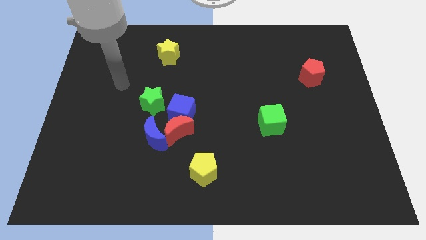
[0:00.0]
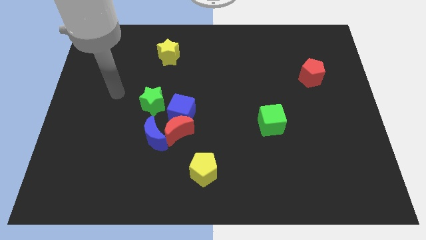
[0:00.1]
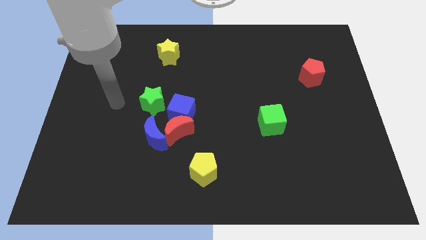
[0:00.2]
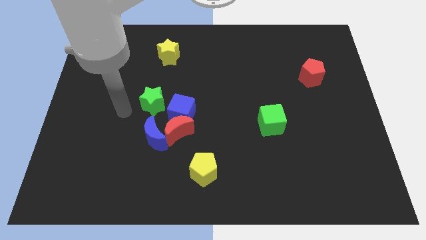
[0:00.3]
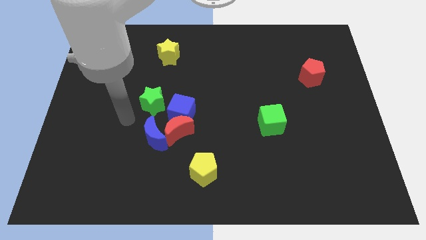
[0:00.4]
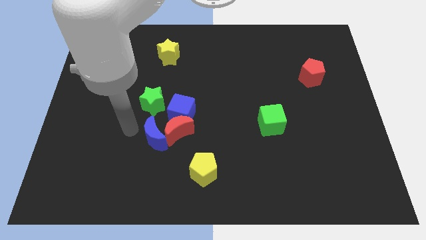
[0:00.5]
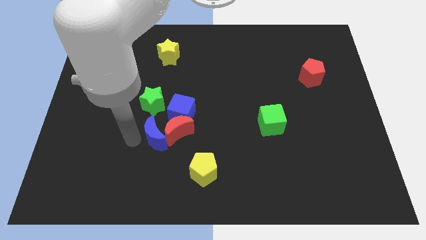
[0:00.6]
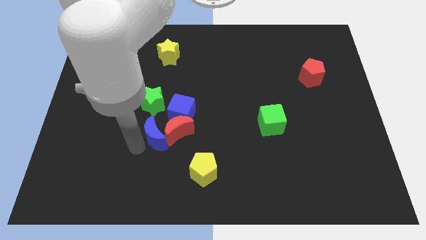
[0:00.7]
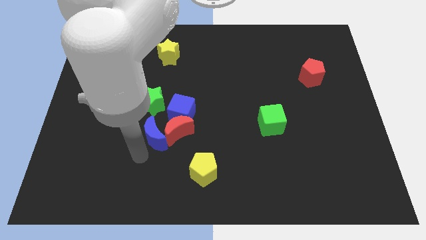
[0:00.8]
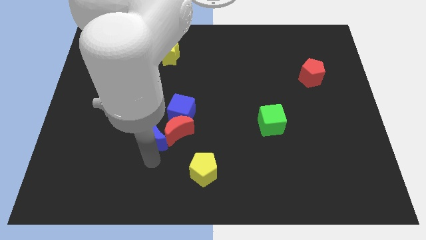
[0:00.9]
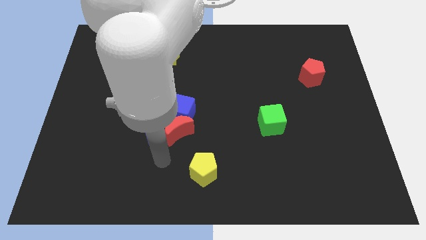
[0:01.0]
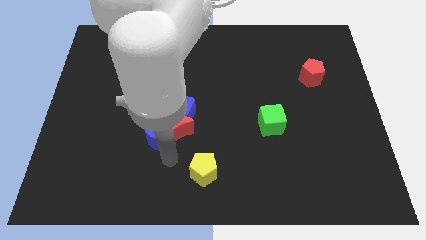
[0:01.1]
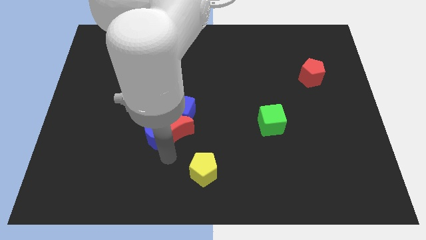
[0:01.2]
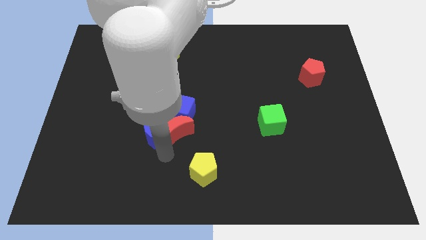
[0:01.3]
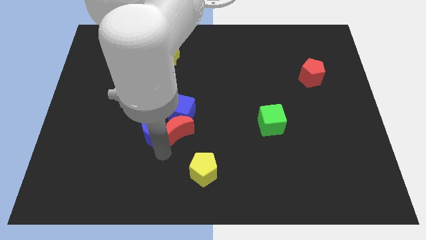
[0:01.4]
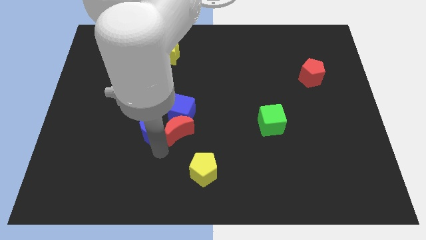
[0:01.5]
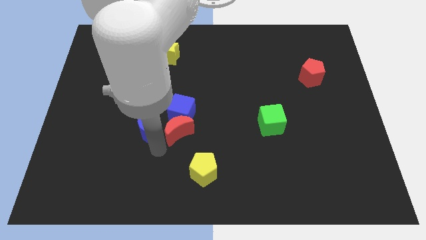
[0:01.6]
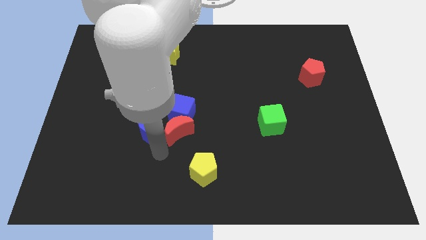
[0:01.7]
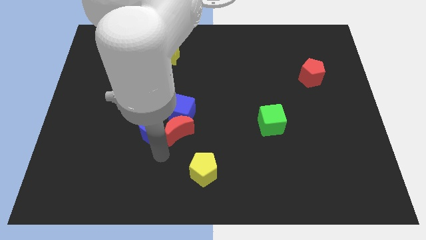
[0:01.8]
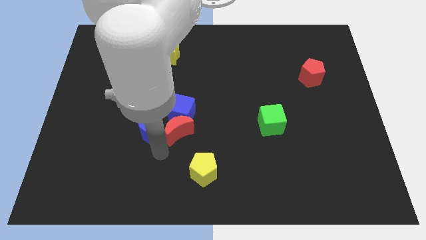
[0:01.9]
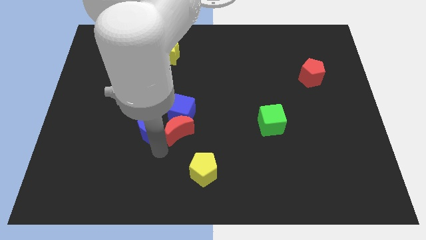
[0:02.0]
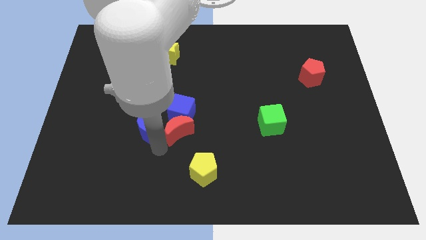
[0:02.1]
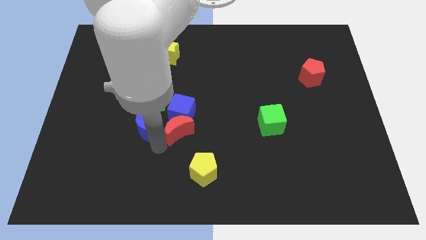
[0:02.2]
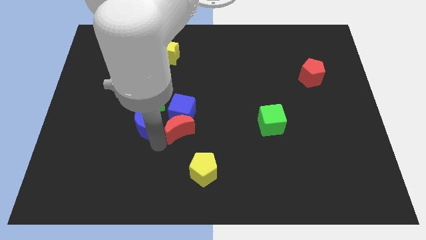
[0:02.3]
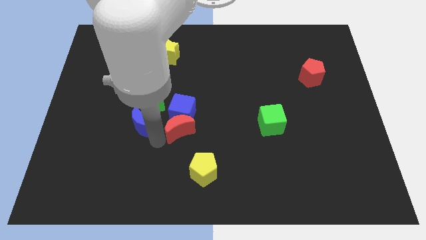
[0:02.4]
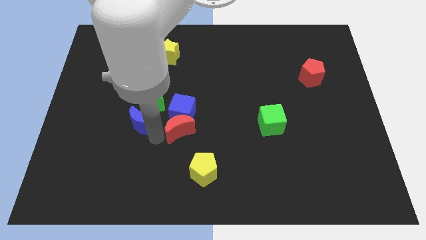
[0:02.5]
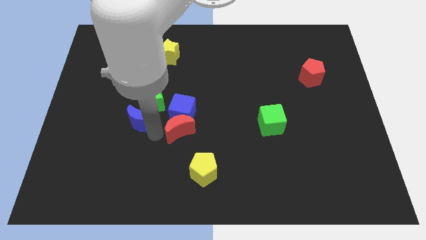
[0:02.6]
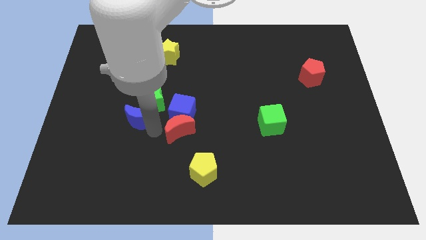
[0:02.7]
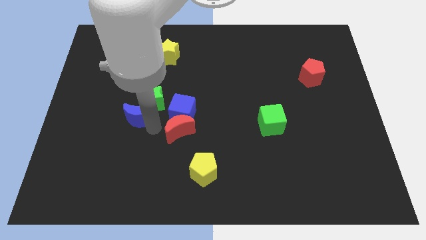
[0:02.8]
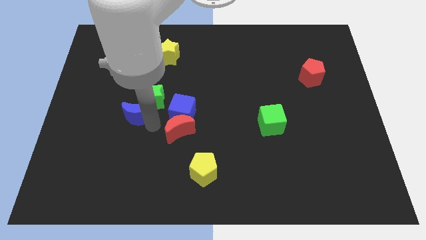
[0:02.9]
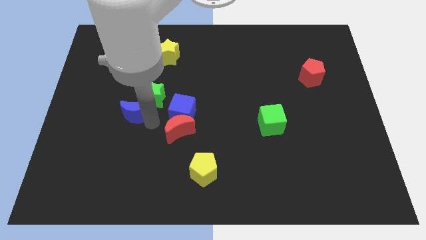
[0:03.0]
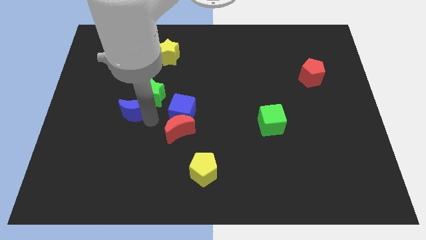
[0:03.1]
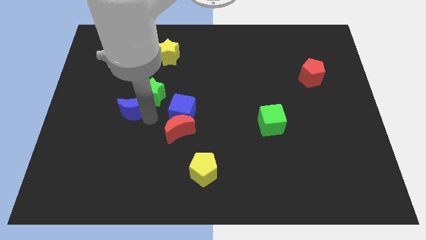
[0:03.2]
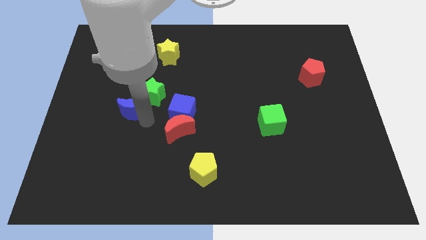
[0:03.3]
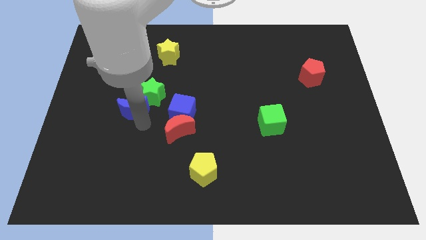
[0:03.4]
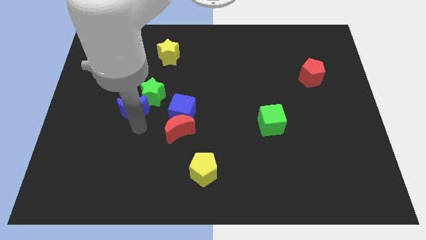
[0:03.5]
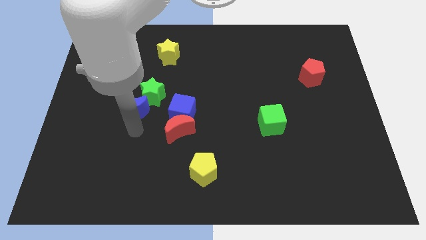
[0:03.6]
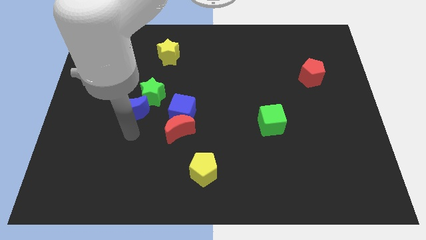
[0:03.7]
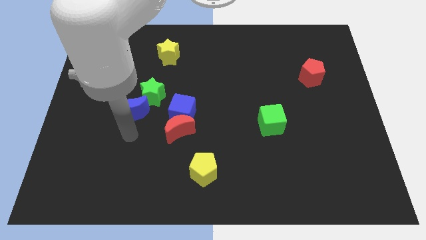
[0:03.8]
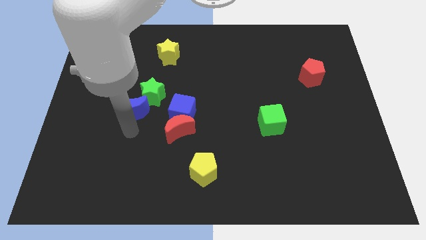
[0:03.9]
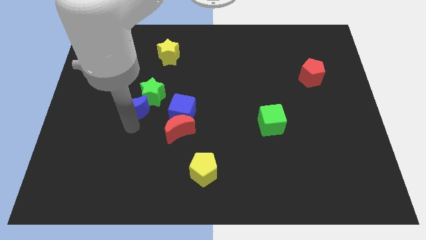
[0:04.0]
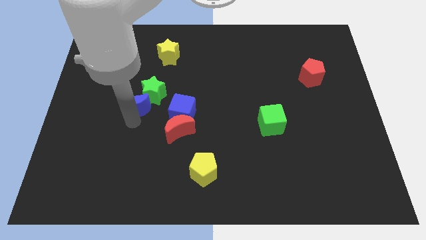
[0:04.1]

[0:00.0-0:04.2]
slide the blue moon somewhat upwards

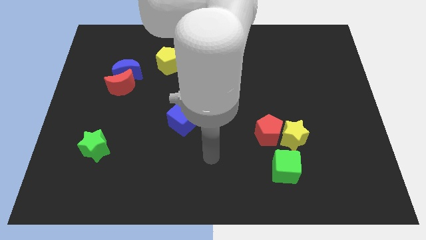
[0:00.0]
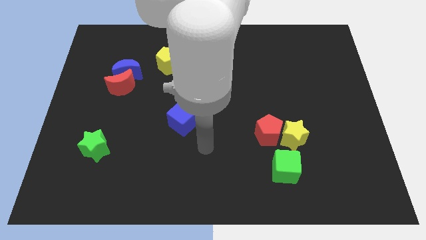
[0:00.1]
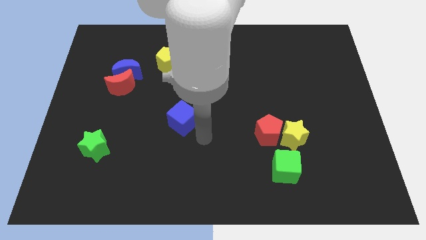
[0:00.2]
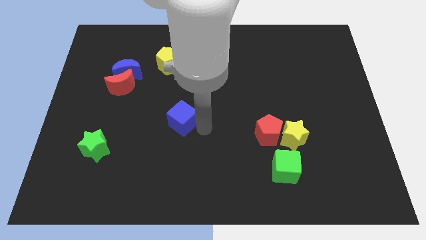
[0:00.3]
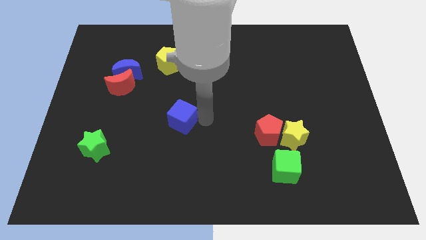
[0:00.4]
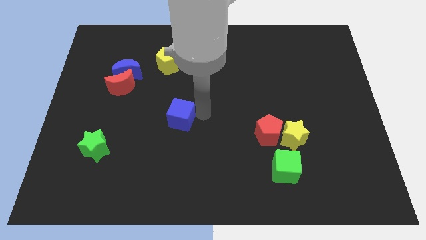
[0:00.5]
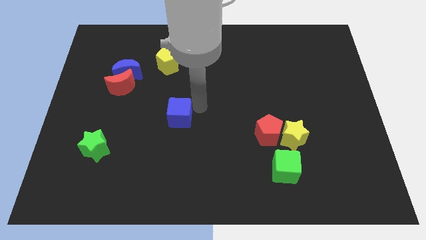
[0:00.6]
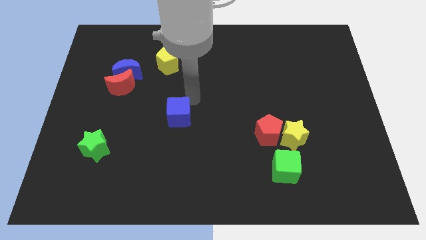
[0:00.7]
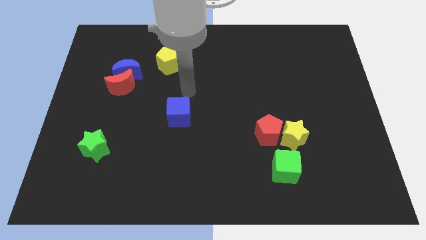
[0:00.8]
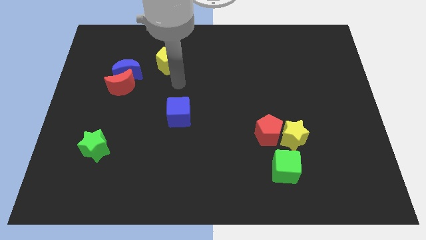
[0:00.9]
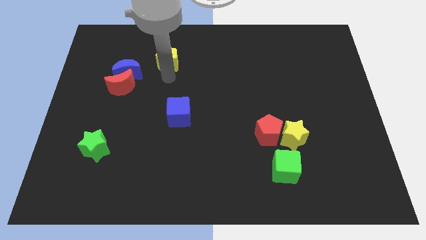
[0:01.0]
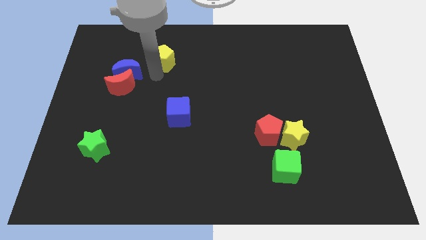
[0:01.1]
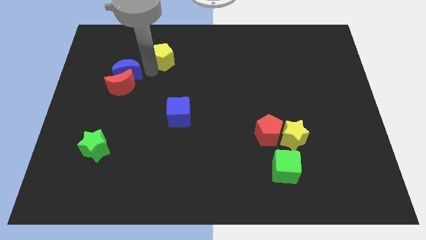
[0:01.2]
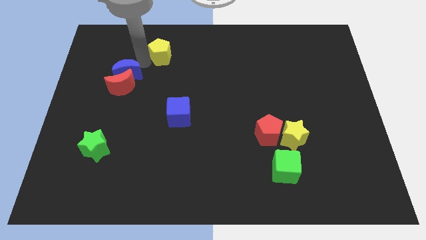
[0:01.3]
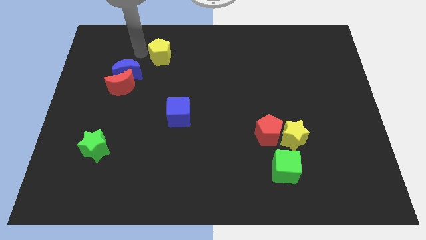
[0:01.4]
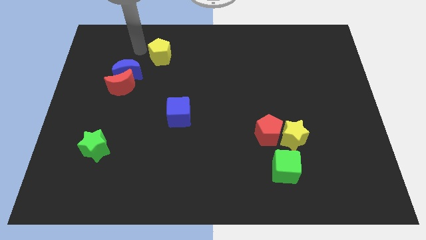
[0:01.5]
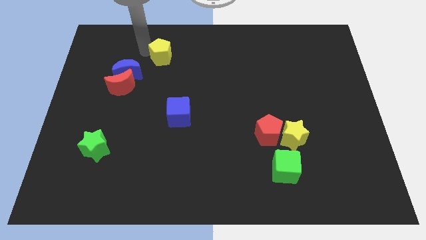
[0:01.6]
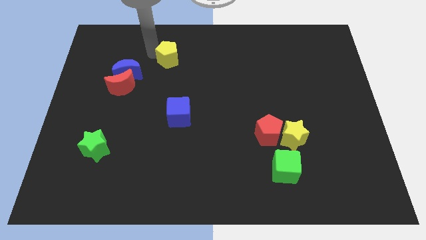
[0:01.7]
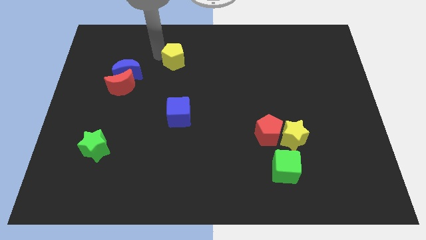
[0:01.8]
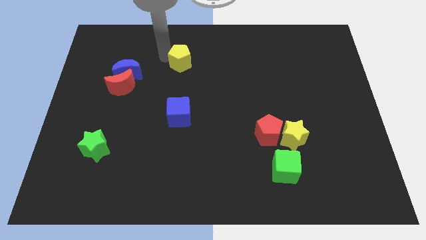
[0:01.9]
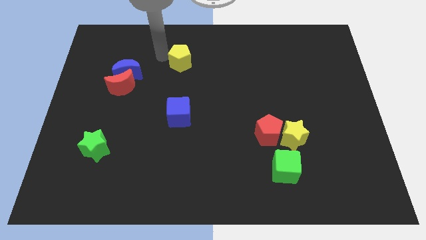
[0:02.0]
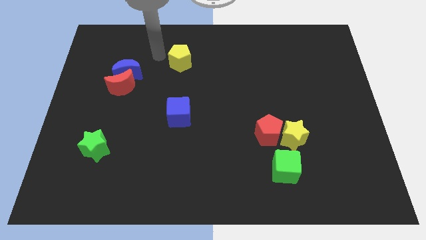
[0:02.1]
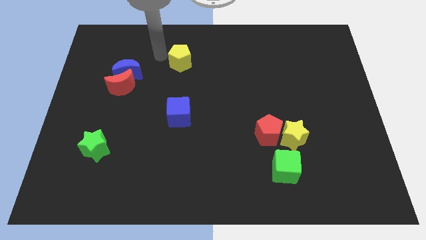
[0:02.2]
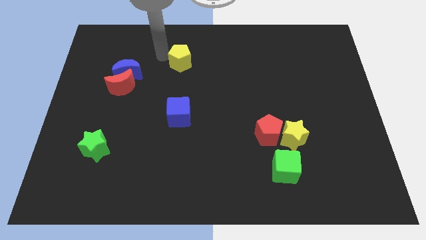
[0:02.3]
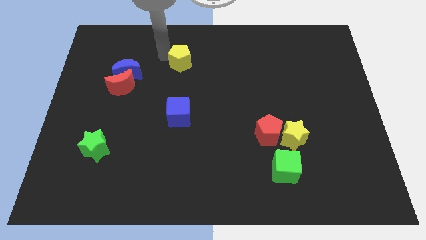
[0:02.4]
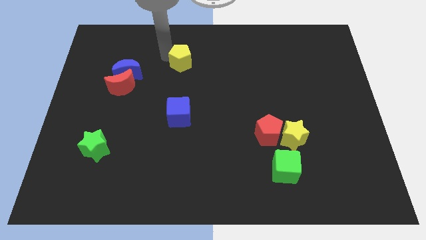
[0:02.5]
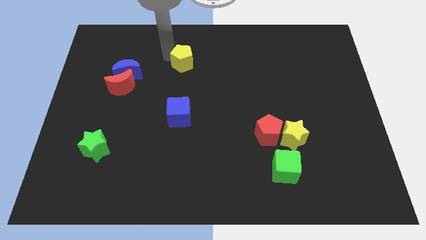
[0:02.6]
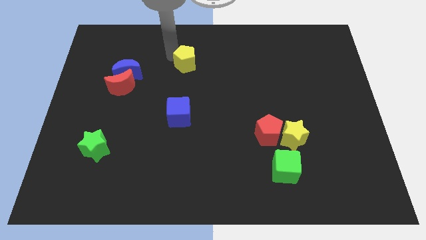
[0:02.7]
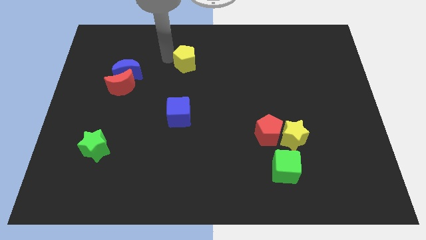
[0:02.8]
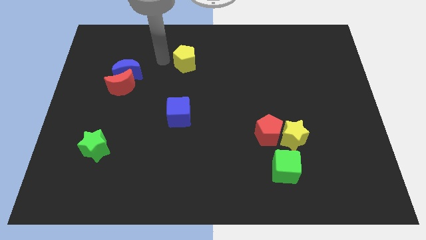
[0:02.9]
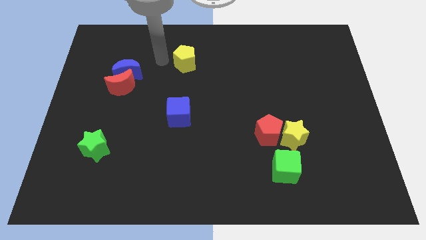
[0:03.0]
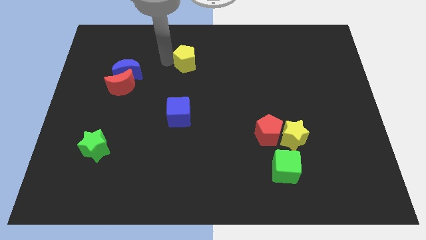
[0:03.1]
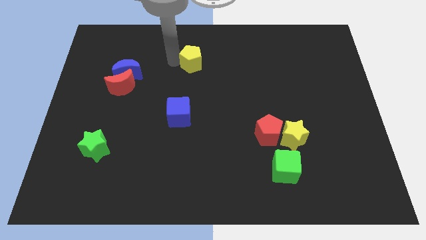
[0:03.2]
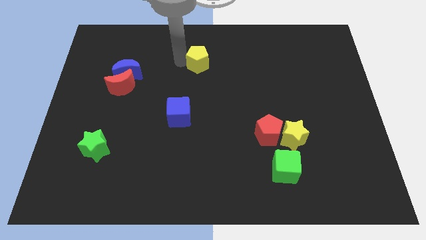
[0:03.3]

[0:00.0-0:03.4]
slightly slide the yellow pentagon right
